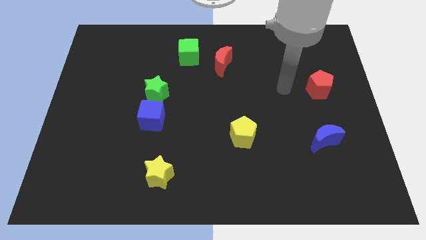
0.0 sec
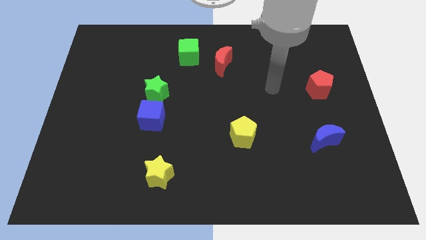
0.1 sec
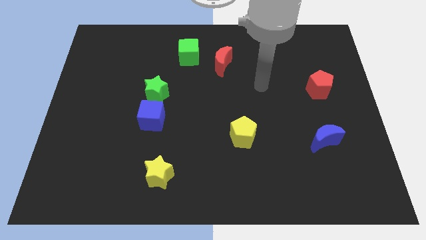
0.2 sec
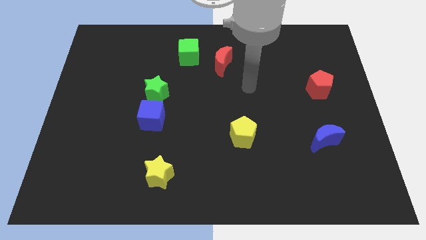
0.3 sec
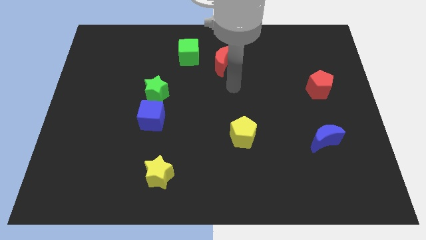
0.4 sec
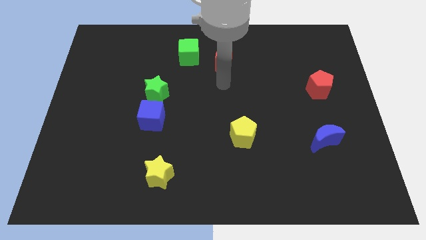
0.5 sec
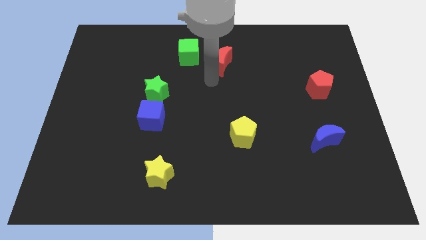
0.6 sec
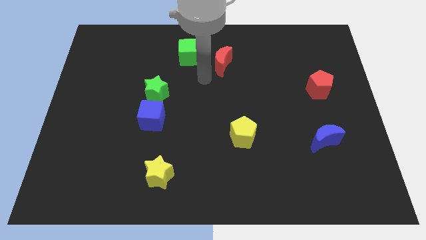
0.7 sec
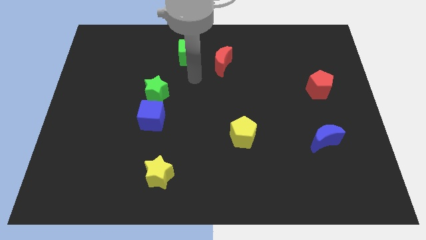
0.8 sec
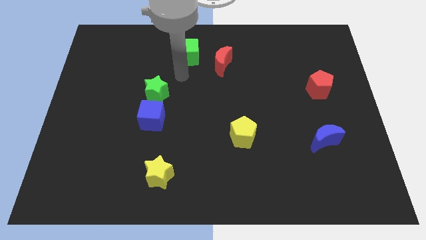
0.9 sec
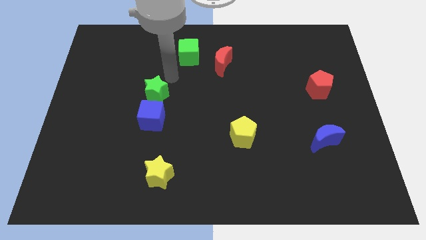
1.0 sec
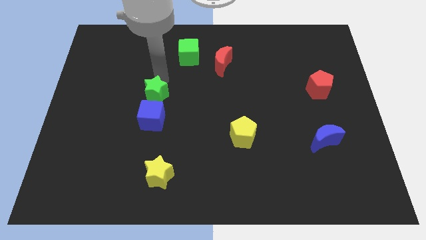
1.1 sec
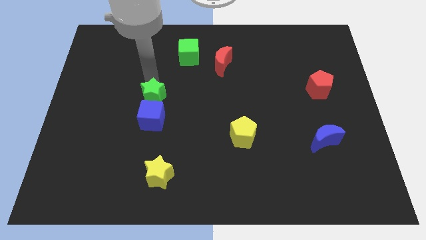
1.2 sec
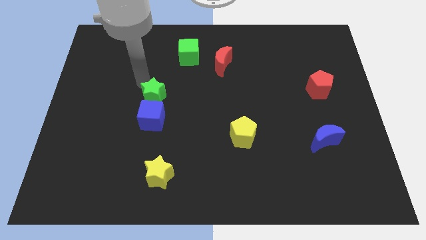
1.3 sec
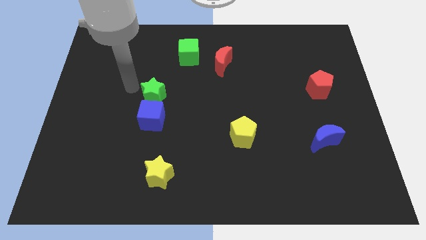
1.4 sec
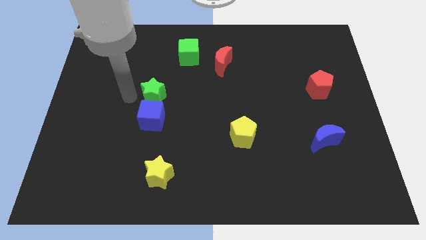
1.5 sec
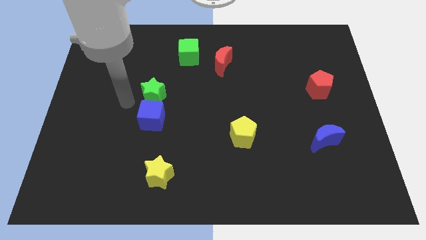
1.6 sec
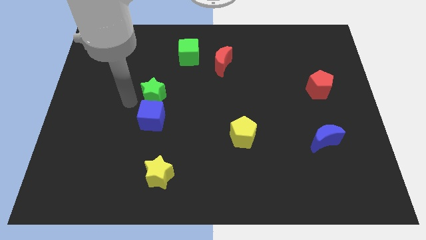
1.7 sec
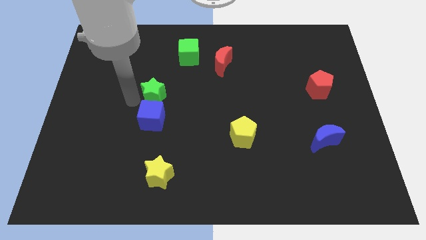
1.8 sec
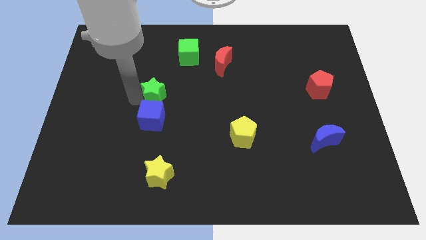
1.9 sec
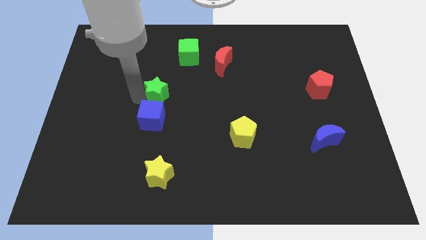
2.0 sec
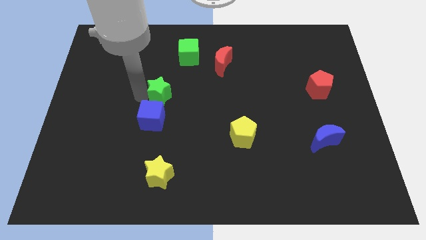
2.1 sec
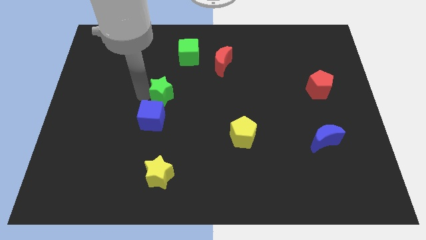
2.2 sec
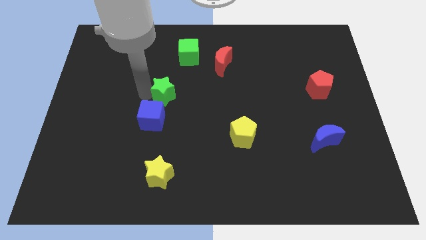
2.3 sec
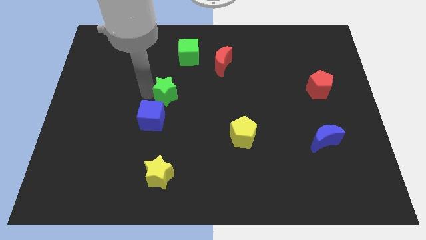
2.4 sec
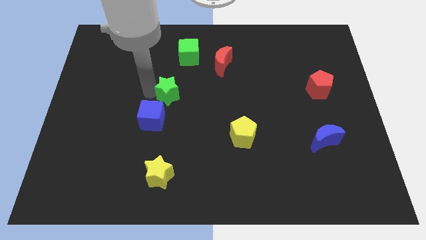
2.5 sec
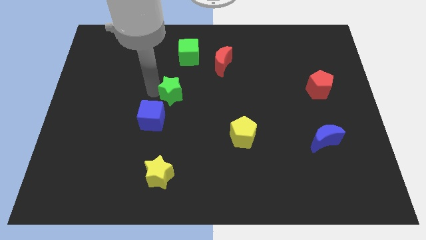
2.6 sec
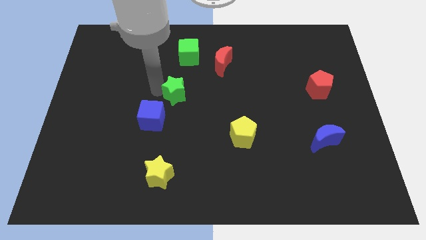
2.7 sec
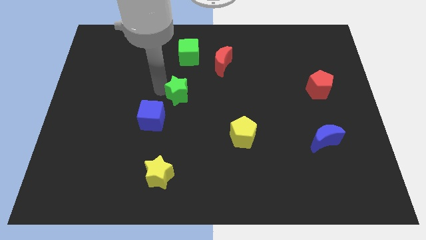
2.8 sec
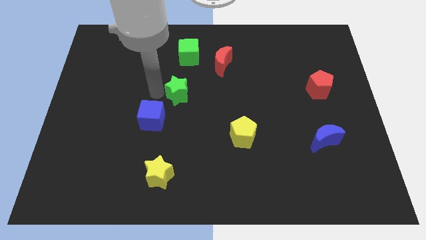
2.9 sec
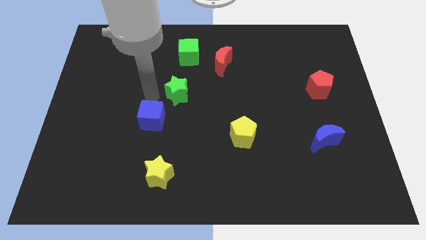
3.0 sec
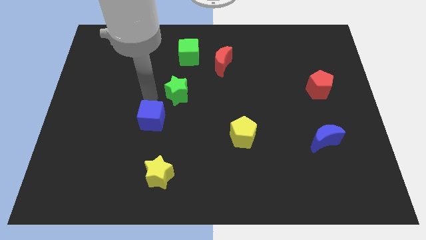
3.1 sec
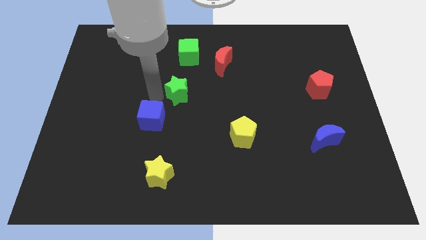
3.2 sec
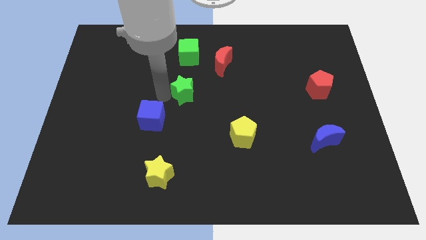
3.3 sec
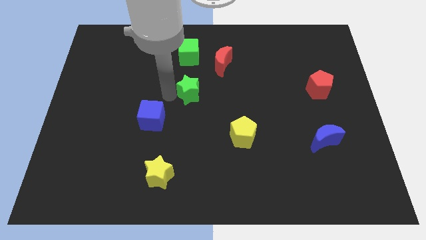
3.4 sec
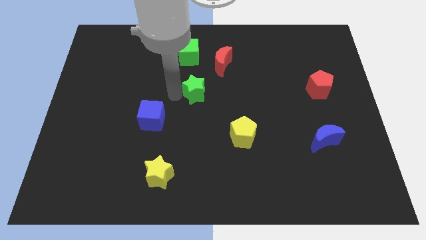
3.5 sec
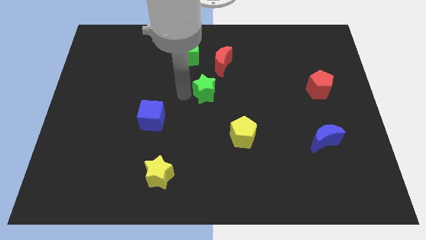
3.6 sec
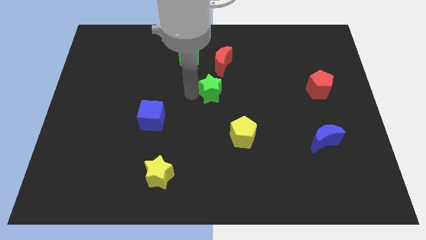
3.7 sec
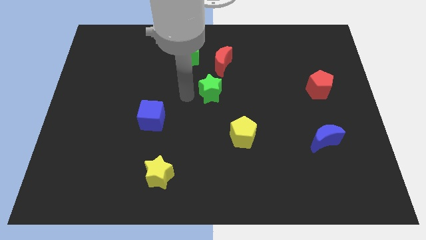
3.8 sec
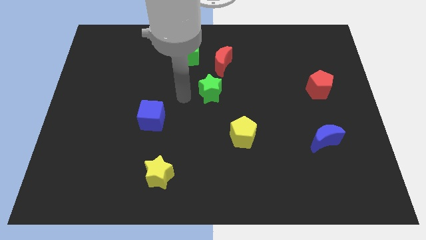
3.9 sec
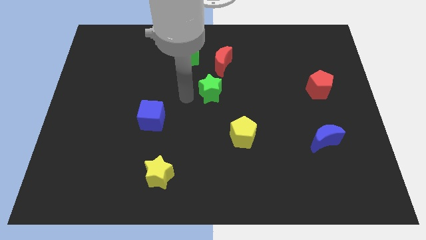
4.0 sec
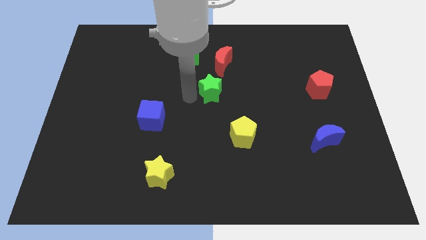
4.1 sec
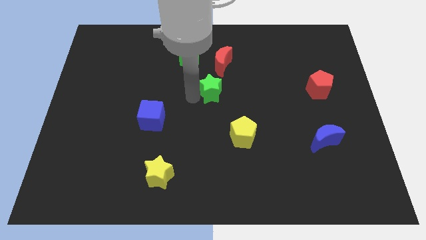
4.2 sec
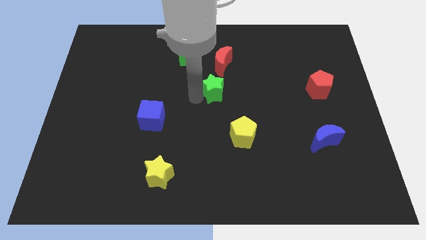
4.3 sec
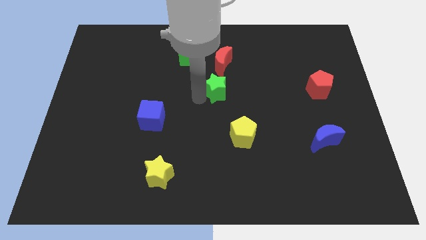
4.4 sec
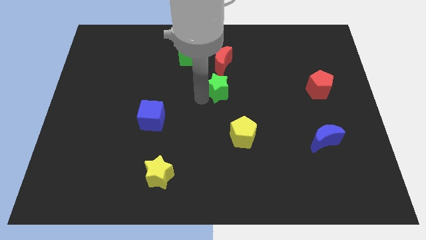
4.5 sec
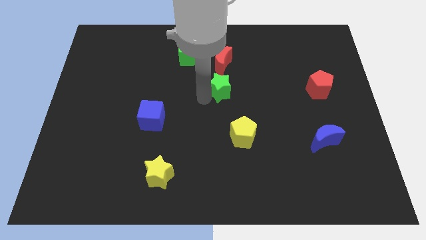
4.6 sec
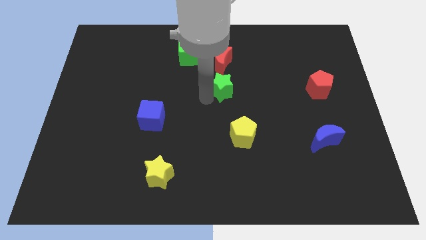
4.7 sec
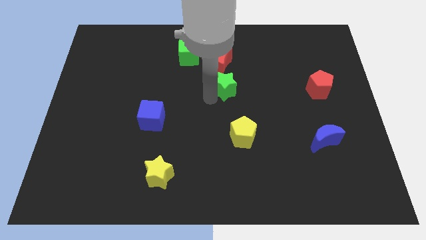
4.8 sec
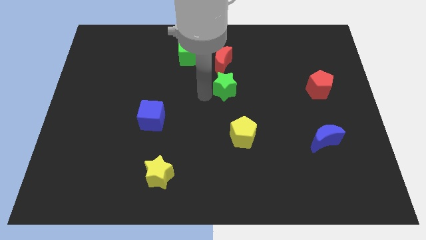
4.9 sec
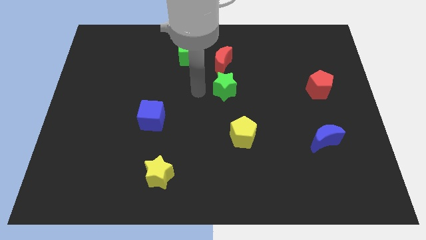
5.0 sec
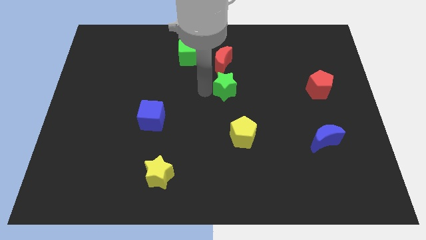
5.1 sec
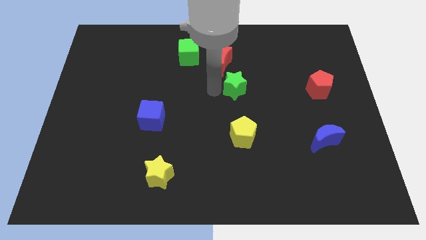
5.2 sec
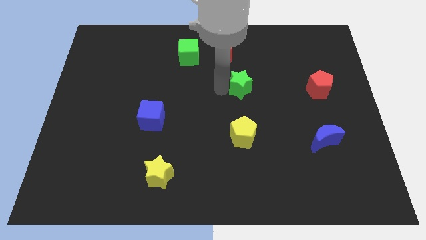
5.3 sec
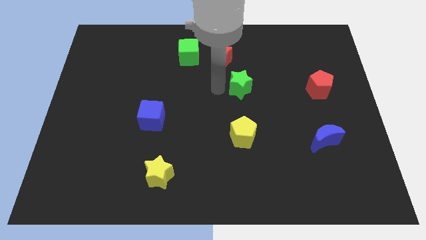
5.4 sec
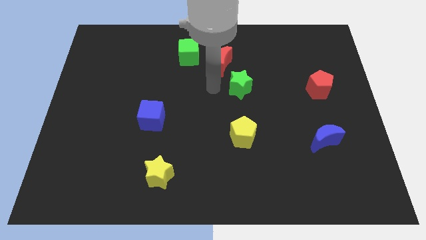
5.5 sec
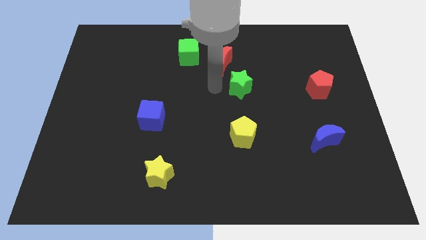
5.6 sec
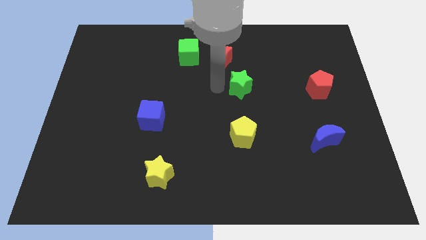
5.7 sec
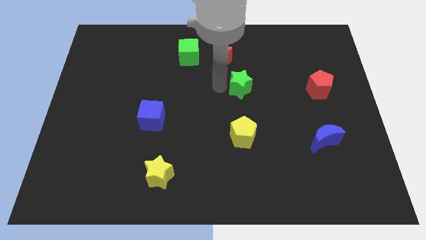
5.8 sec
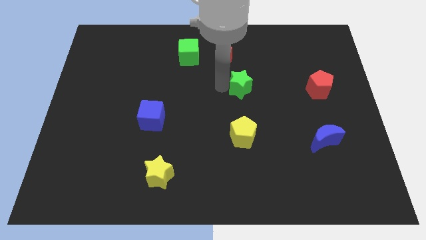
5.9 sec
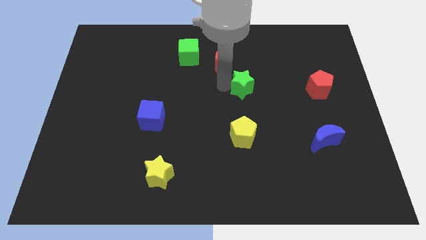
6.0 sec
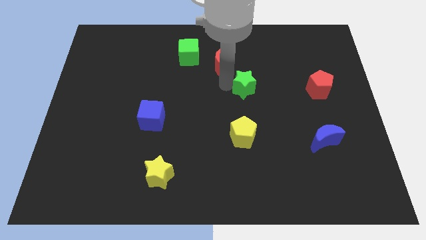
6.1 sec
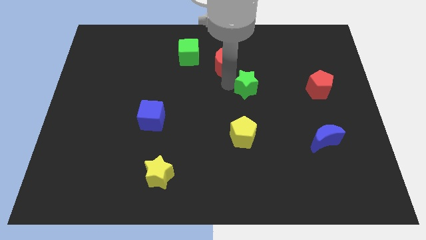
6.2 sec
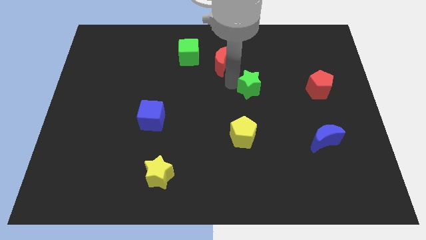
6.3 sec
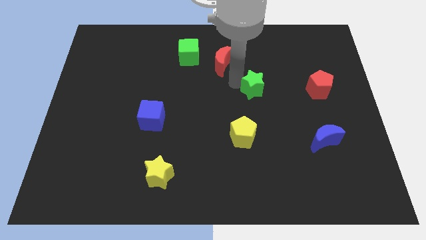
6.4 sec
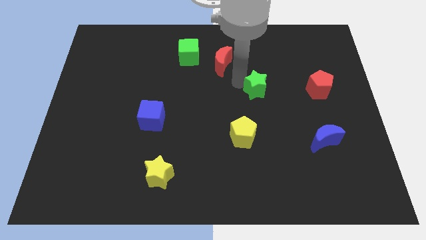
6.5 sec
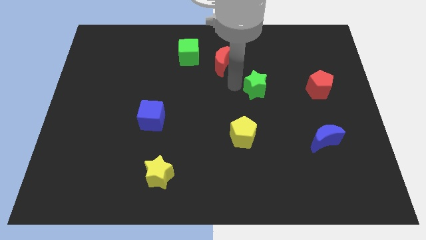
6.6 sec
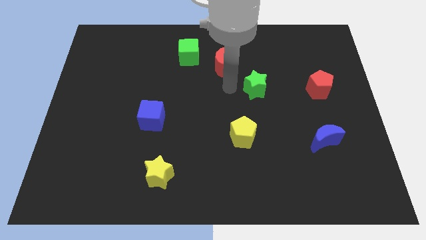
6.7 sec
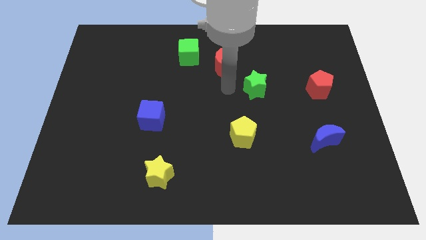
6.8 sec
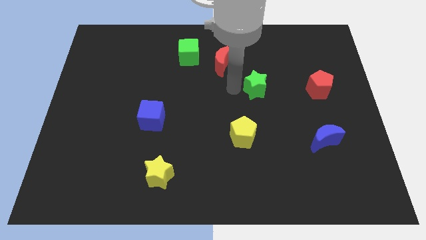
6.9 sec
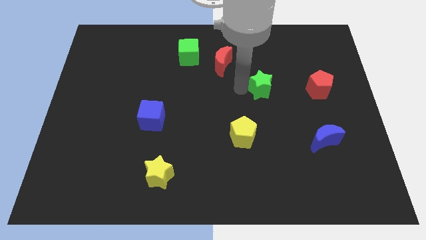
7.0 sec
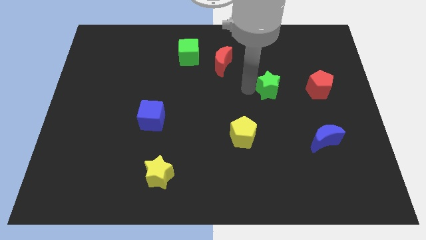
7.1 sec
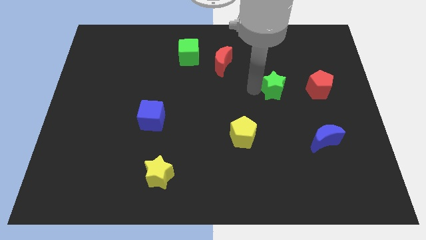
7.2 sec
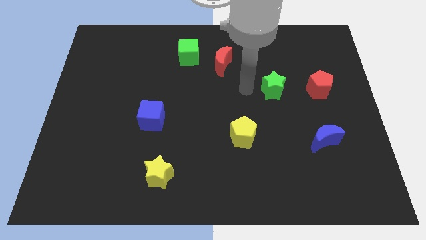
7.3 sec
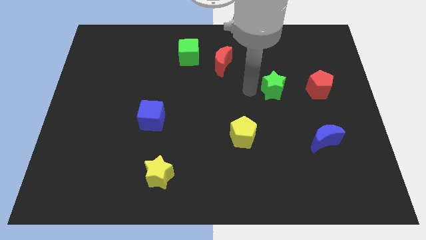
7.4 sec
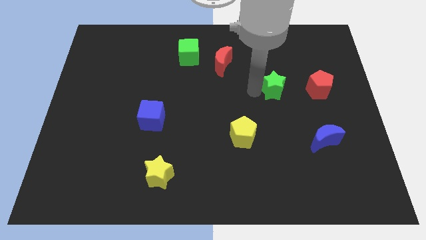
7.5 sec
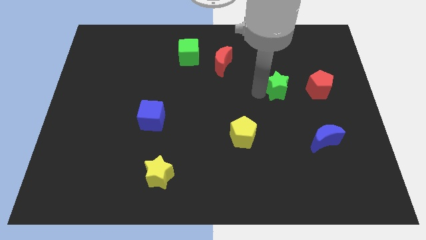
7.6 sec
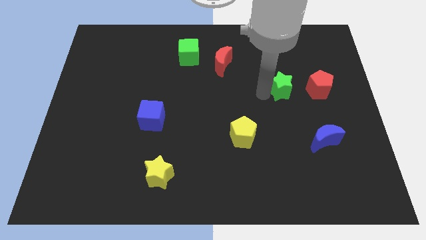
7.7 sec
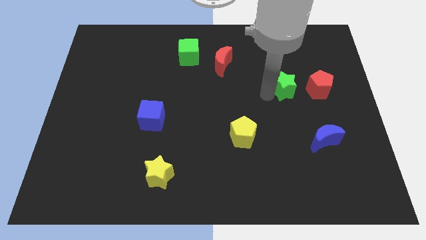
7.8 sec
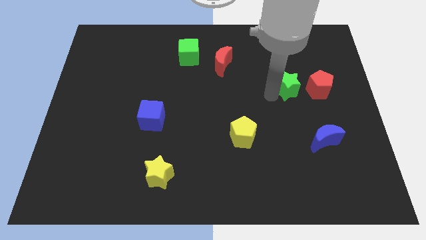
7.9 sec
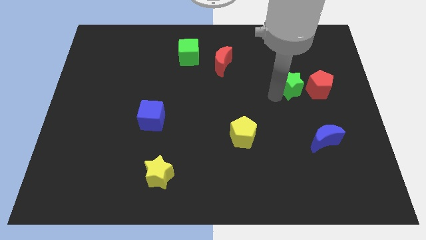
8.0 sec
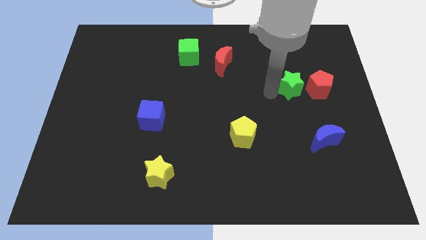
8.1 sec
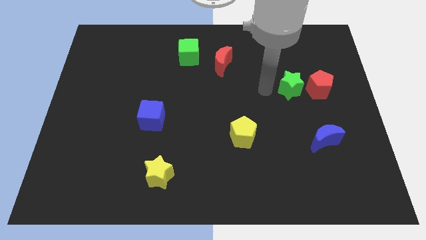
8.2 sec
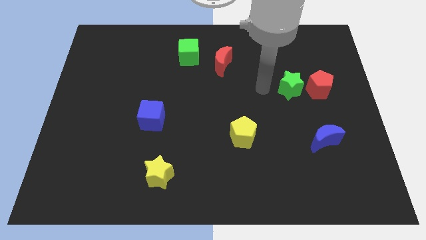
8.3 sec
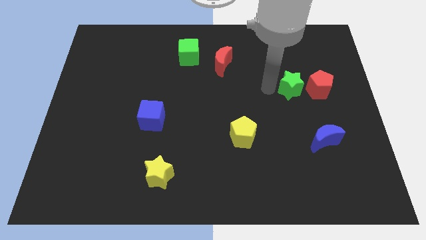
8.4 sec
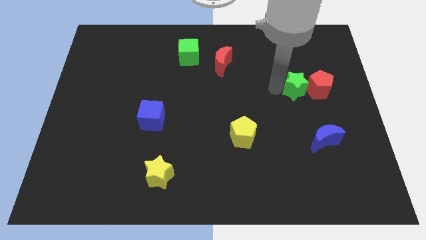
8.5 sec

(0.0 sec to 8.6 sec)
push the green star towards the red pentagon
